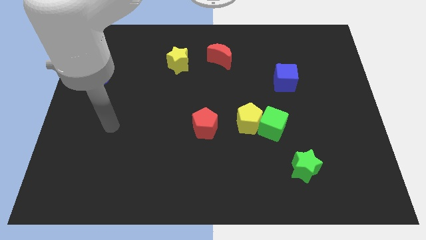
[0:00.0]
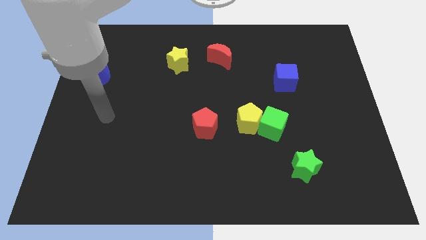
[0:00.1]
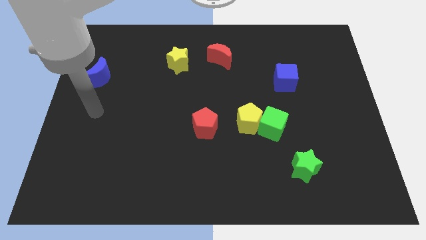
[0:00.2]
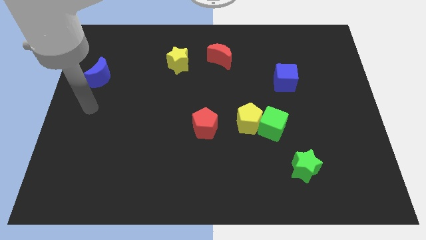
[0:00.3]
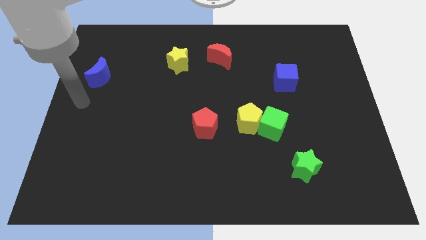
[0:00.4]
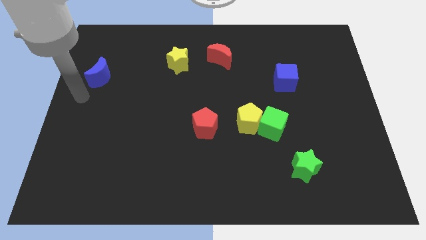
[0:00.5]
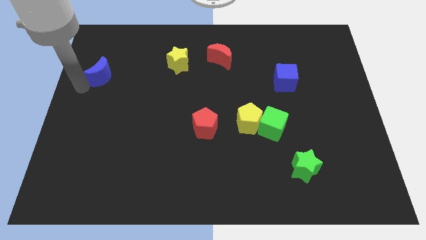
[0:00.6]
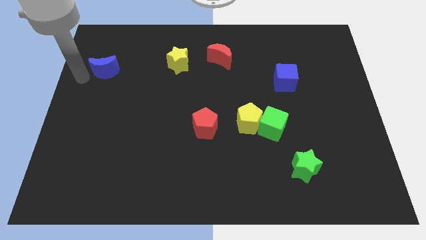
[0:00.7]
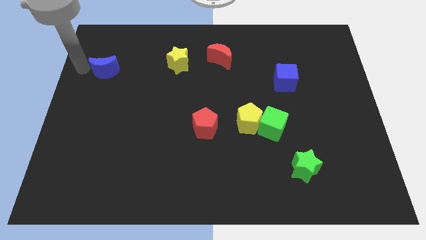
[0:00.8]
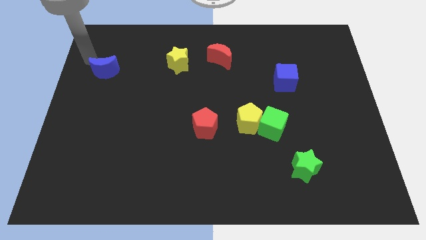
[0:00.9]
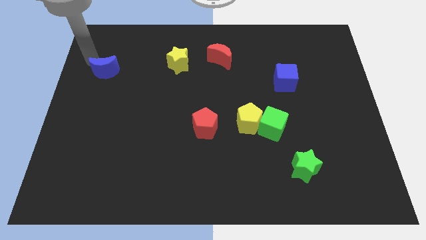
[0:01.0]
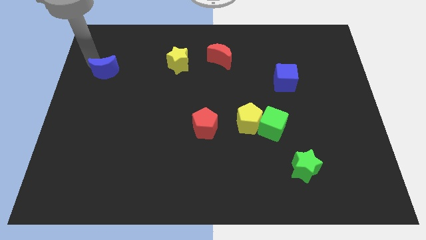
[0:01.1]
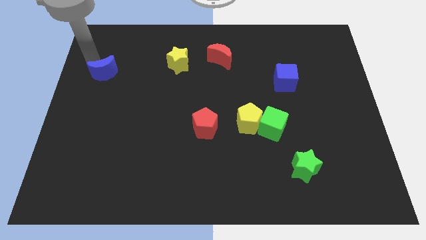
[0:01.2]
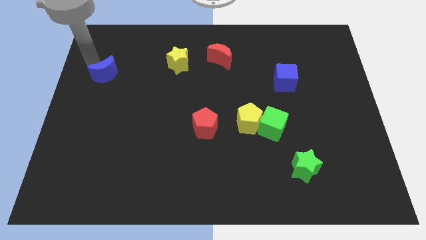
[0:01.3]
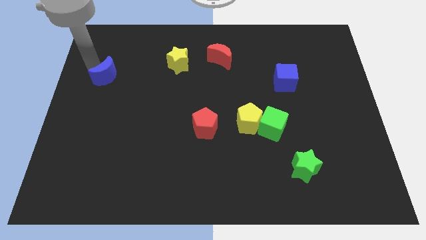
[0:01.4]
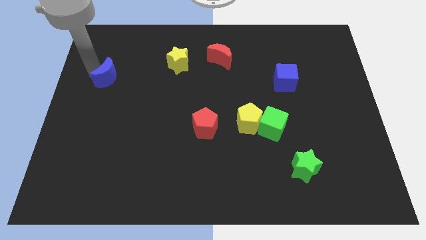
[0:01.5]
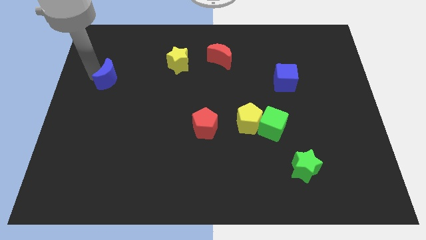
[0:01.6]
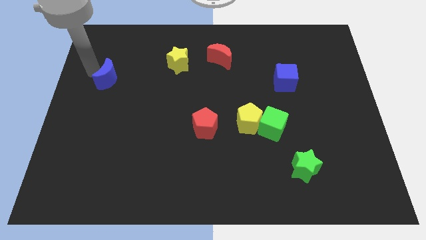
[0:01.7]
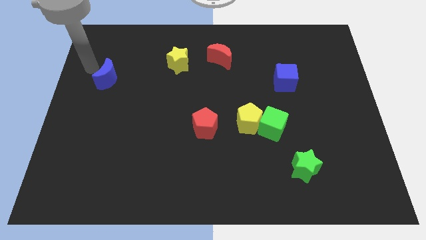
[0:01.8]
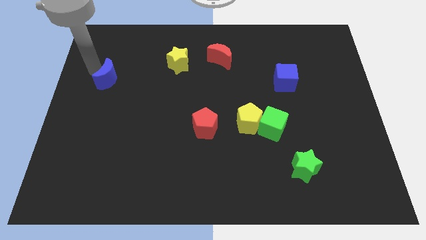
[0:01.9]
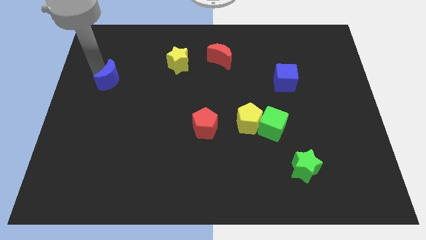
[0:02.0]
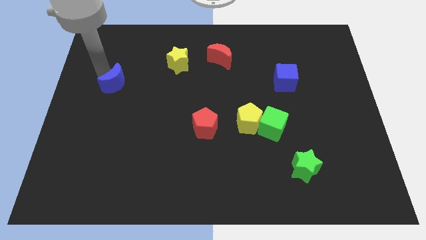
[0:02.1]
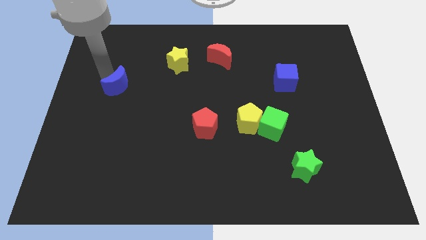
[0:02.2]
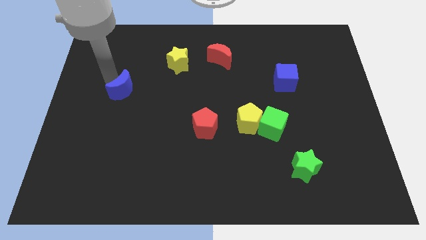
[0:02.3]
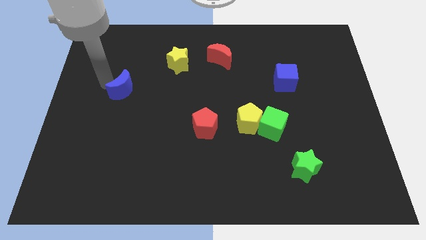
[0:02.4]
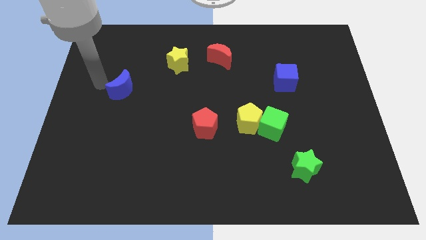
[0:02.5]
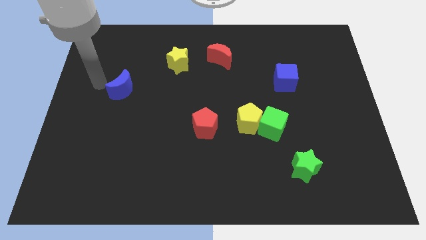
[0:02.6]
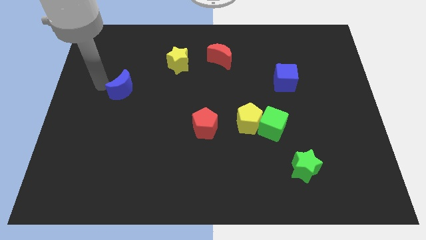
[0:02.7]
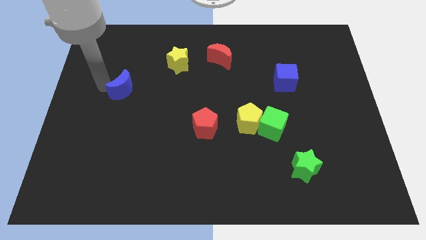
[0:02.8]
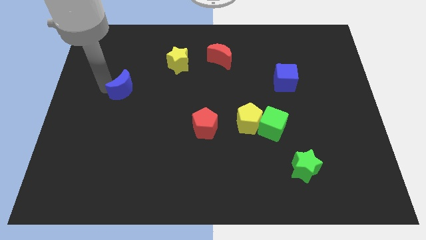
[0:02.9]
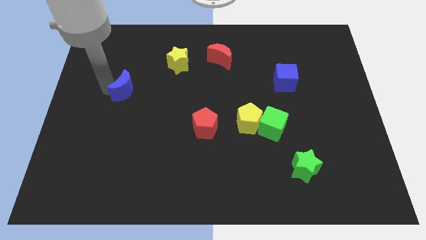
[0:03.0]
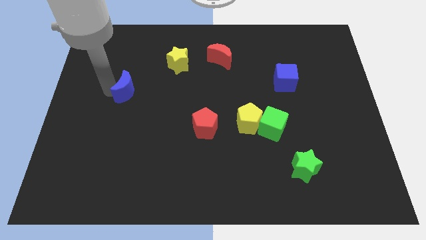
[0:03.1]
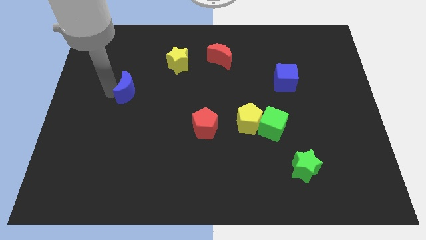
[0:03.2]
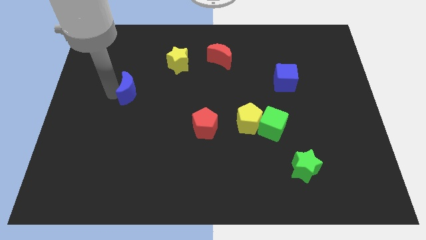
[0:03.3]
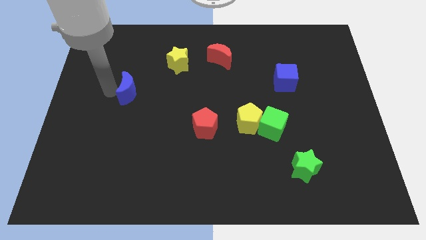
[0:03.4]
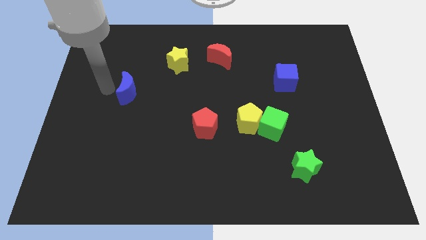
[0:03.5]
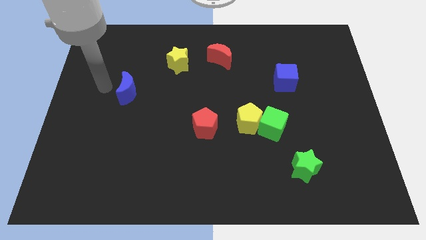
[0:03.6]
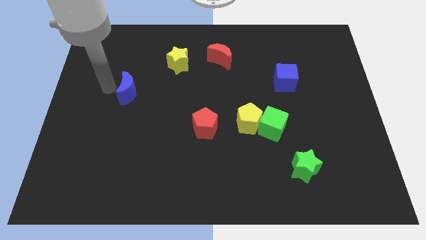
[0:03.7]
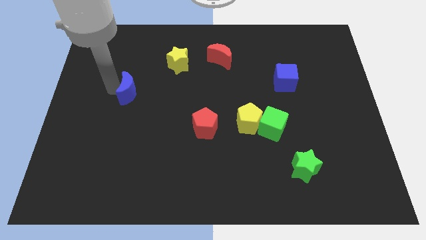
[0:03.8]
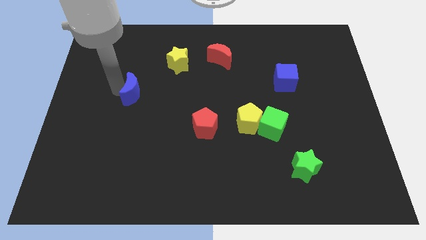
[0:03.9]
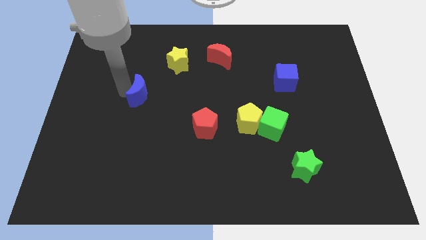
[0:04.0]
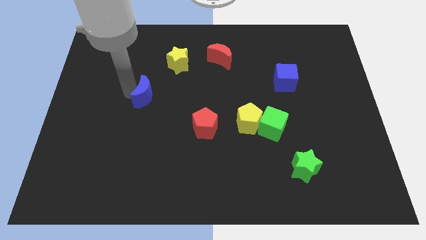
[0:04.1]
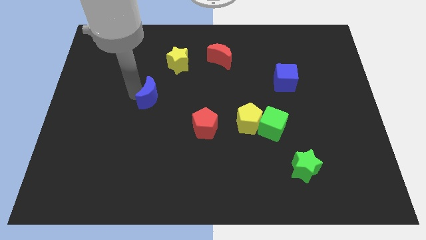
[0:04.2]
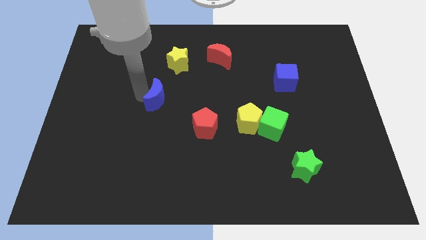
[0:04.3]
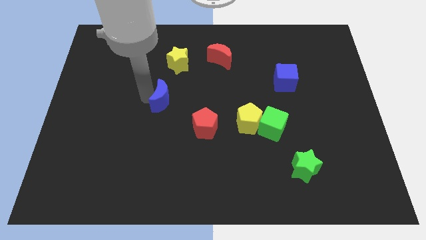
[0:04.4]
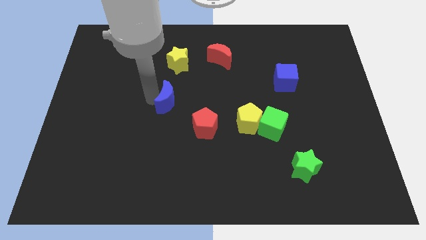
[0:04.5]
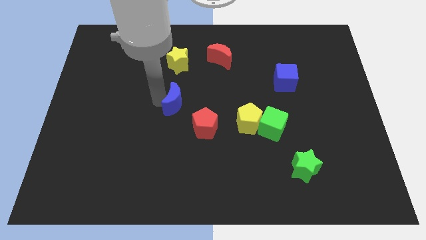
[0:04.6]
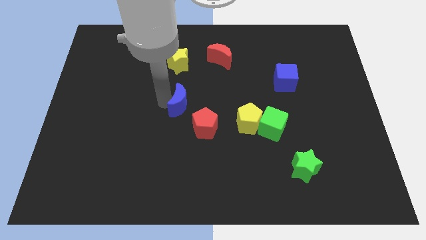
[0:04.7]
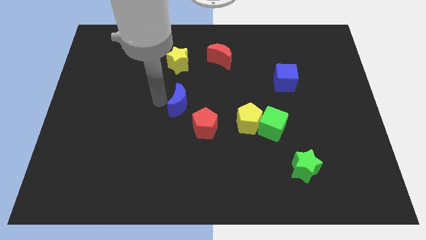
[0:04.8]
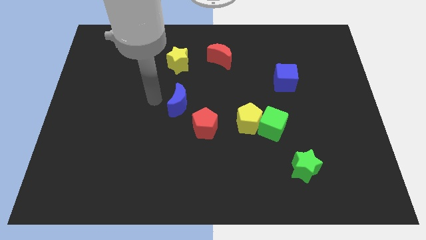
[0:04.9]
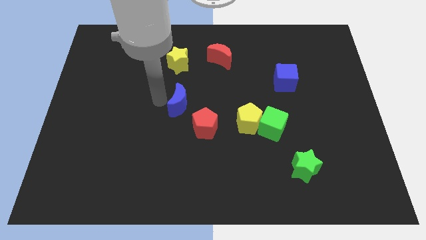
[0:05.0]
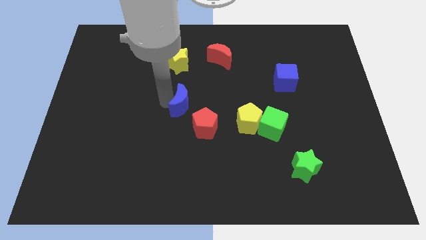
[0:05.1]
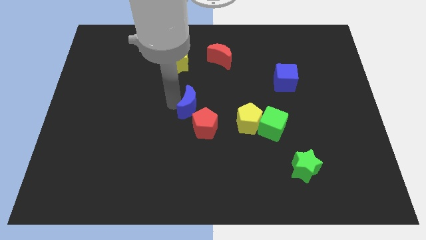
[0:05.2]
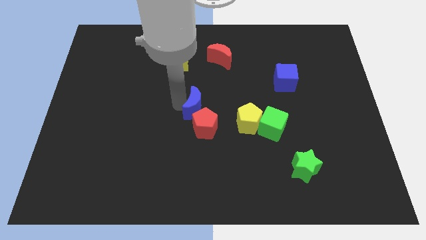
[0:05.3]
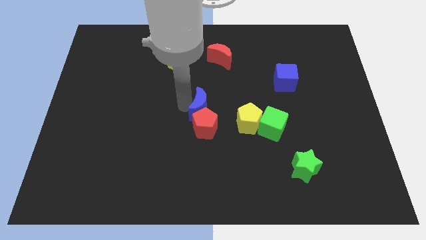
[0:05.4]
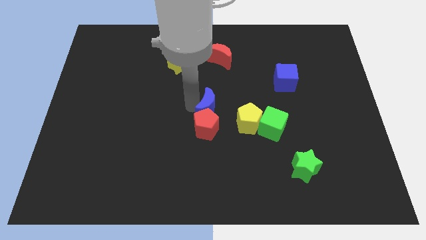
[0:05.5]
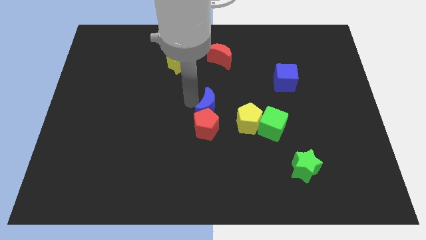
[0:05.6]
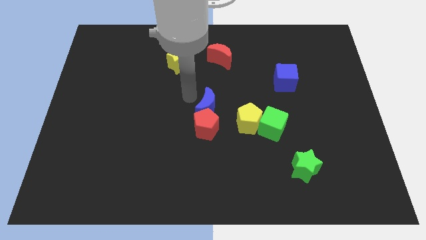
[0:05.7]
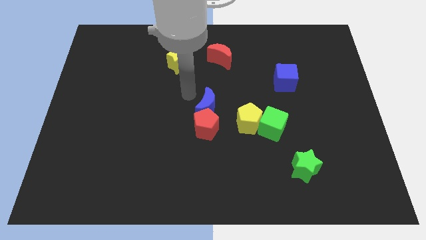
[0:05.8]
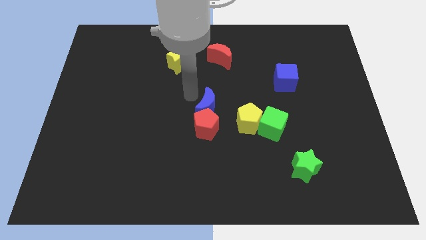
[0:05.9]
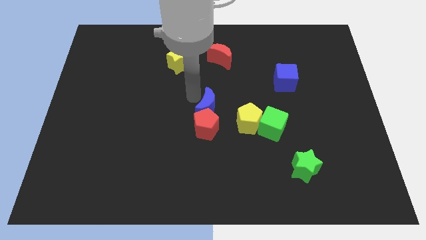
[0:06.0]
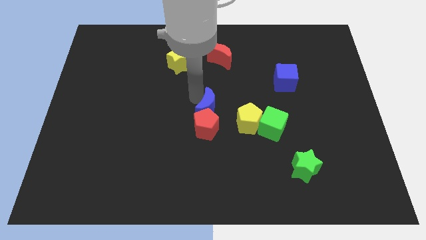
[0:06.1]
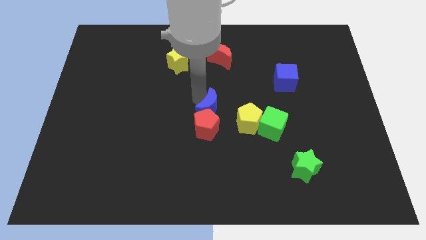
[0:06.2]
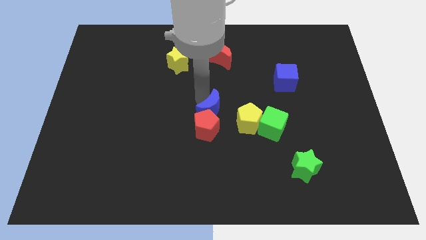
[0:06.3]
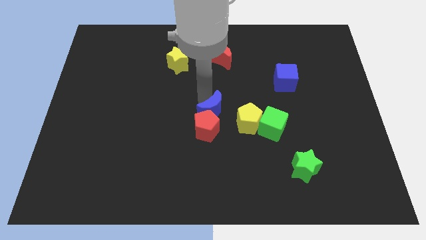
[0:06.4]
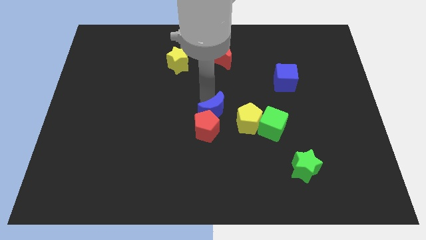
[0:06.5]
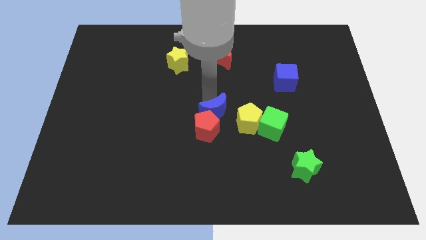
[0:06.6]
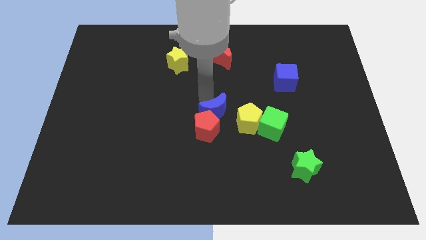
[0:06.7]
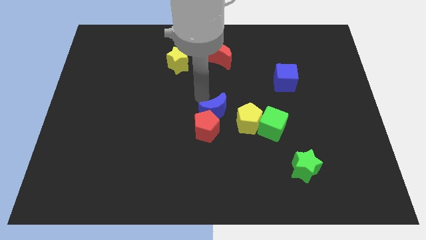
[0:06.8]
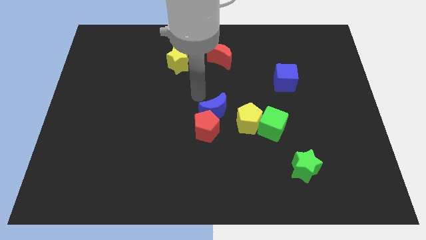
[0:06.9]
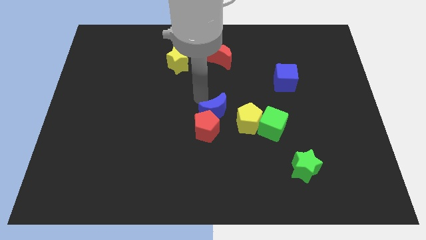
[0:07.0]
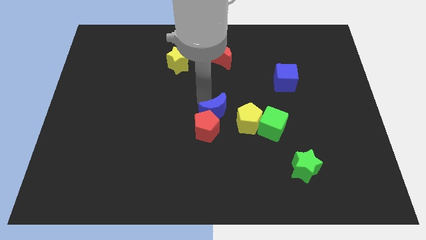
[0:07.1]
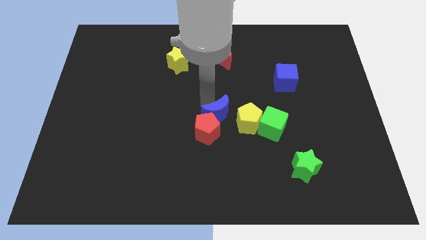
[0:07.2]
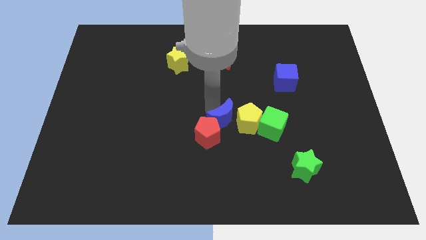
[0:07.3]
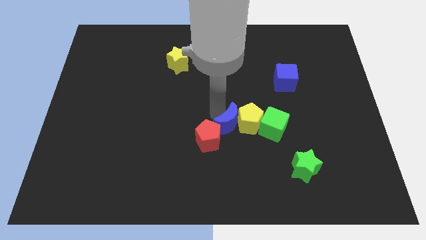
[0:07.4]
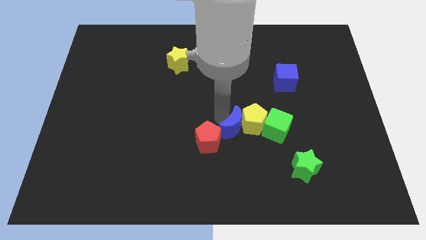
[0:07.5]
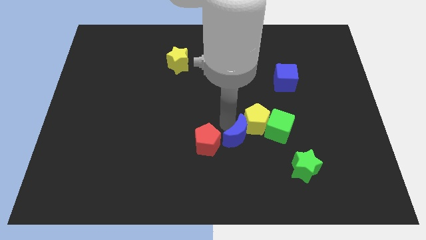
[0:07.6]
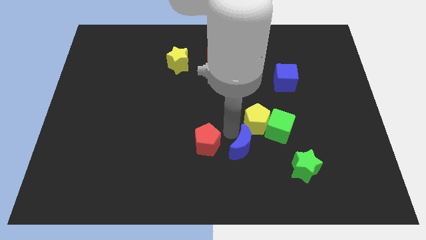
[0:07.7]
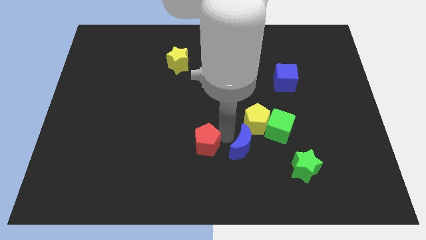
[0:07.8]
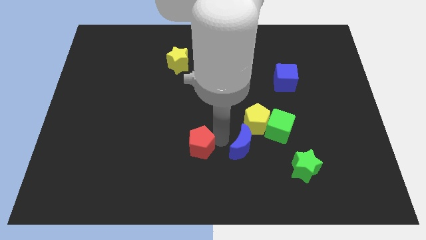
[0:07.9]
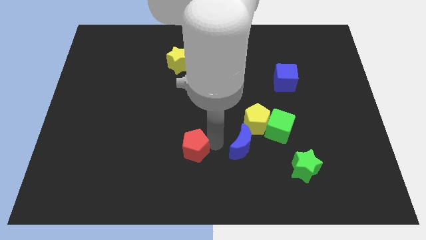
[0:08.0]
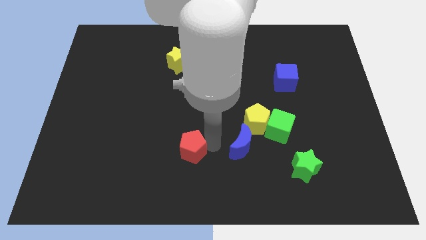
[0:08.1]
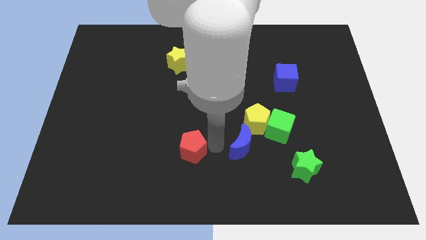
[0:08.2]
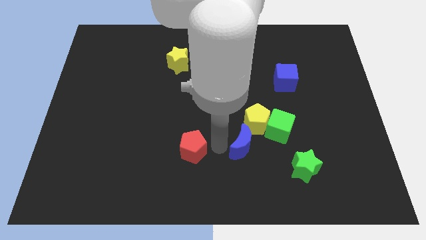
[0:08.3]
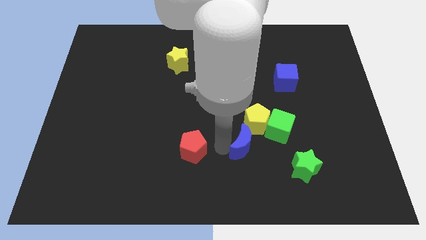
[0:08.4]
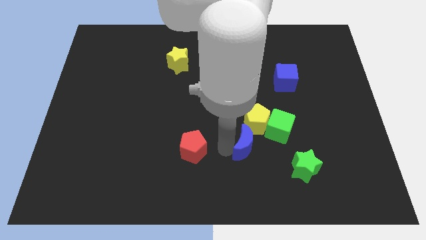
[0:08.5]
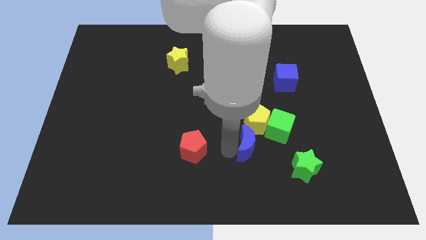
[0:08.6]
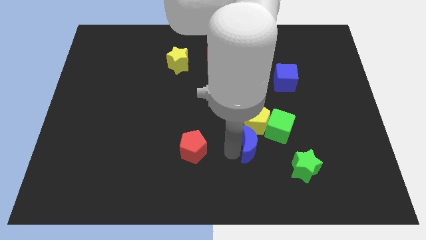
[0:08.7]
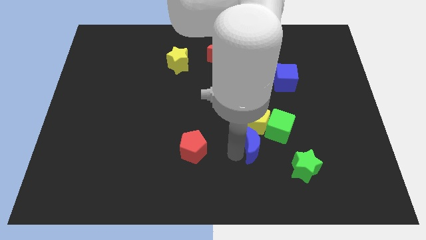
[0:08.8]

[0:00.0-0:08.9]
move the blue moon diagonally up and to the left of the green star
